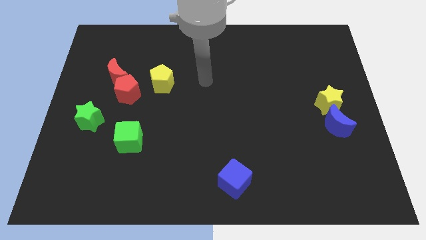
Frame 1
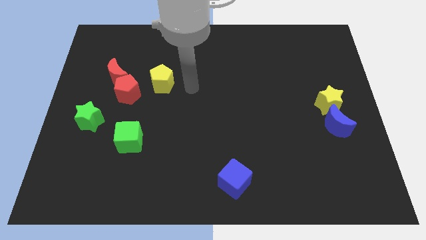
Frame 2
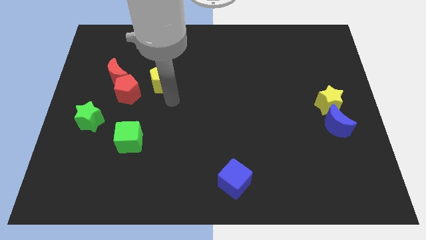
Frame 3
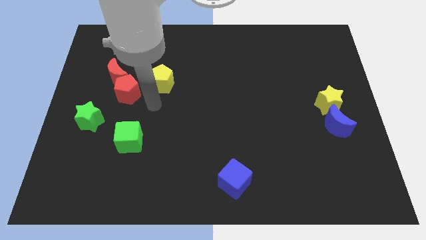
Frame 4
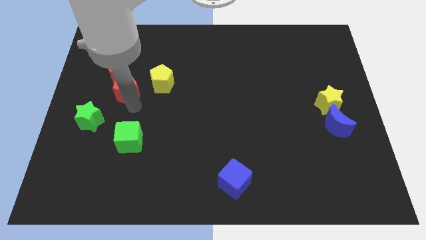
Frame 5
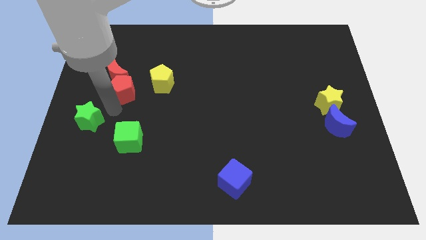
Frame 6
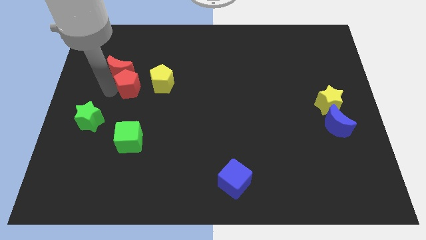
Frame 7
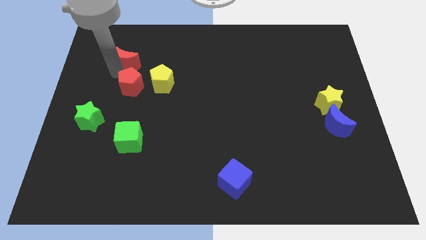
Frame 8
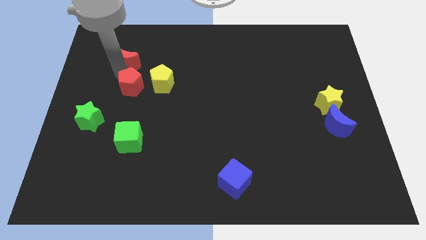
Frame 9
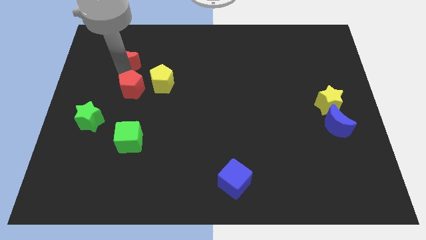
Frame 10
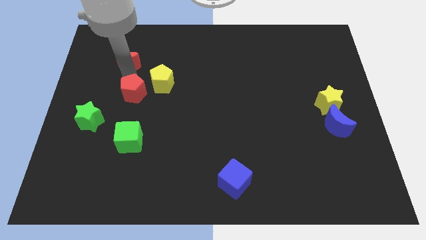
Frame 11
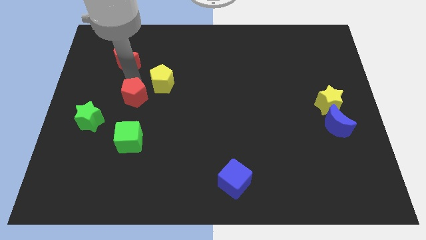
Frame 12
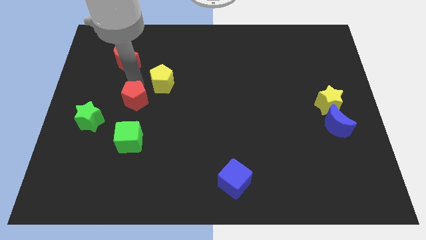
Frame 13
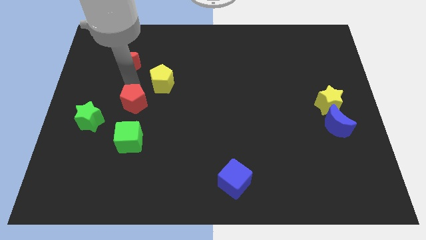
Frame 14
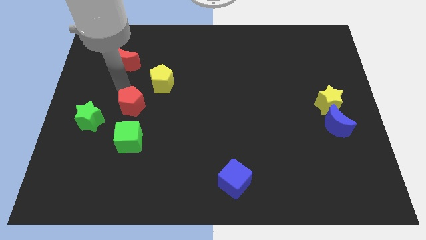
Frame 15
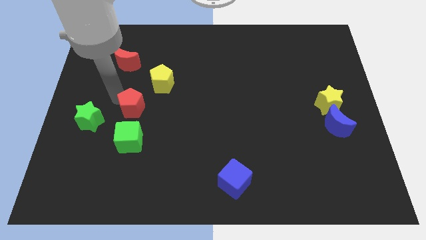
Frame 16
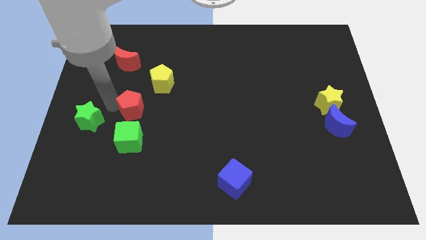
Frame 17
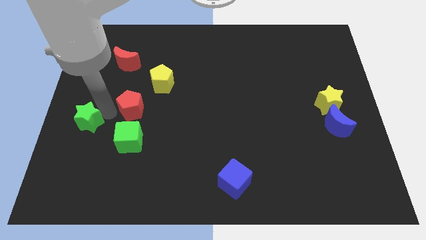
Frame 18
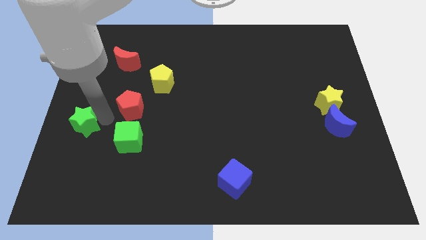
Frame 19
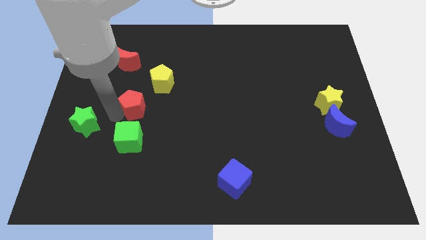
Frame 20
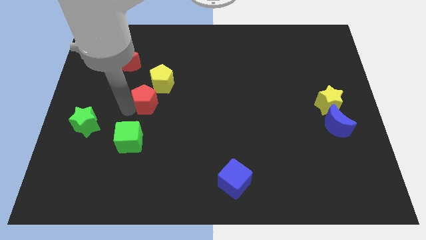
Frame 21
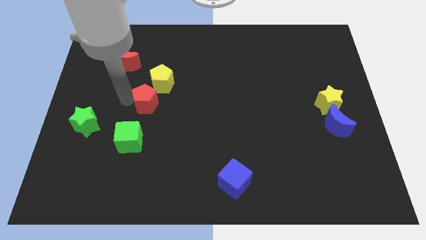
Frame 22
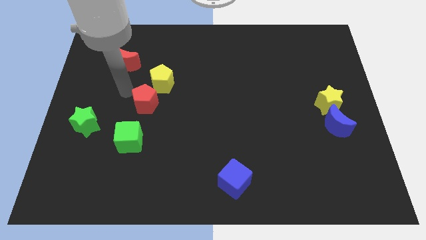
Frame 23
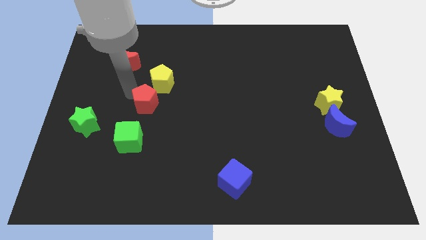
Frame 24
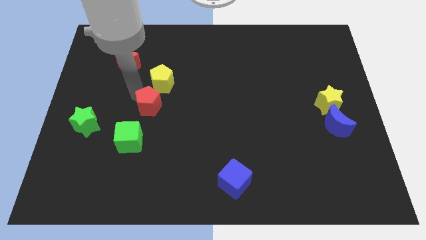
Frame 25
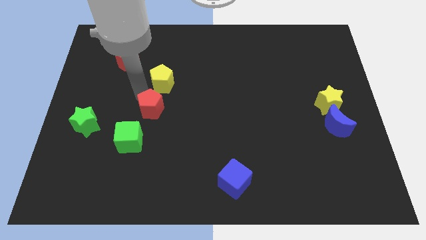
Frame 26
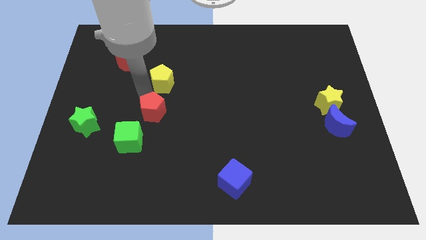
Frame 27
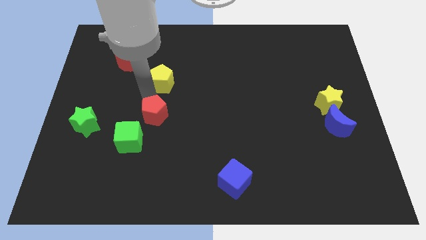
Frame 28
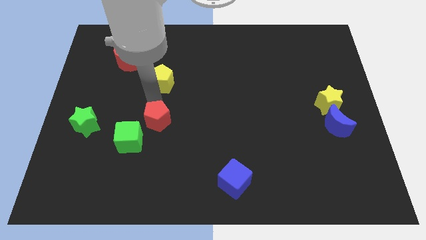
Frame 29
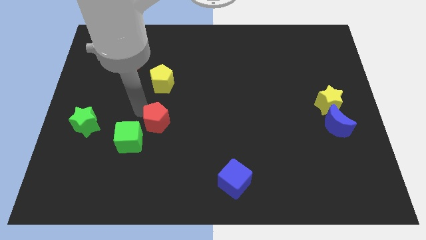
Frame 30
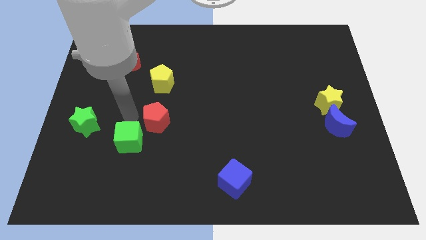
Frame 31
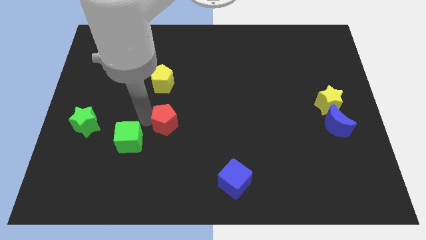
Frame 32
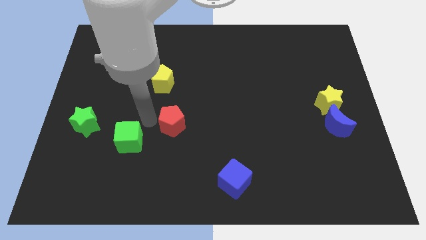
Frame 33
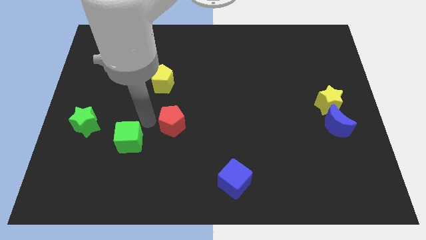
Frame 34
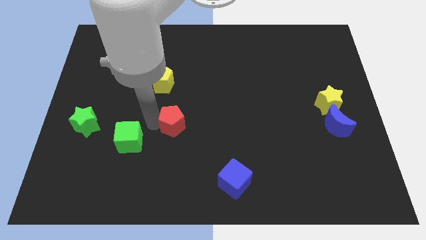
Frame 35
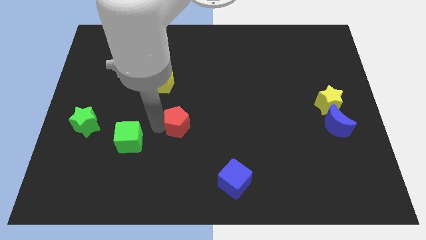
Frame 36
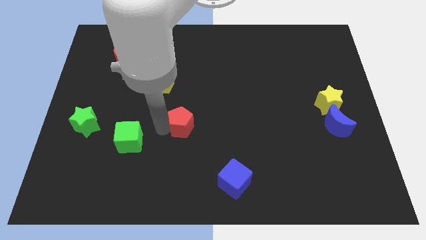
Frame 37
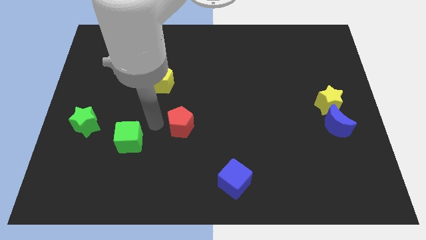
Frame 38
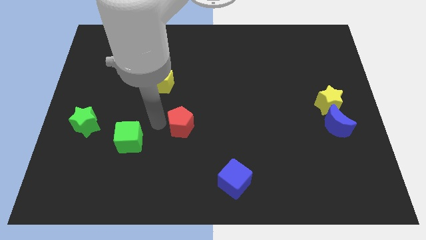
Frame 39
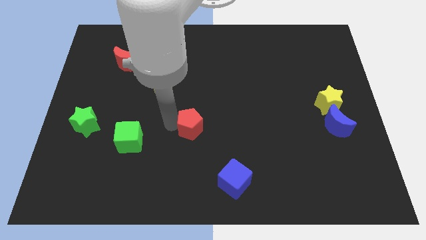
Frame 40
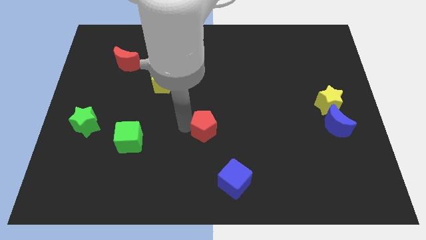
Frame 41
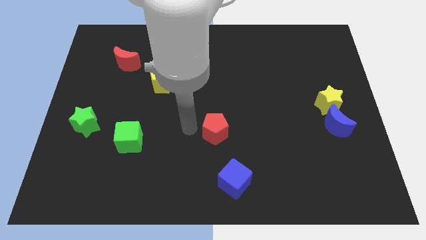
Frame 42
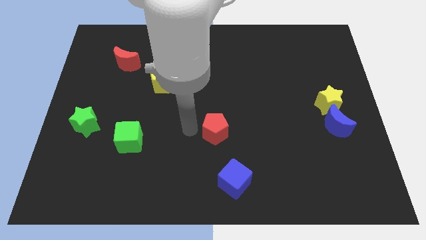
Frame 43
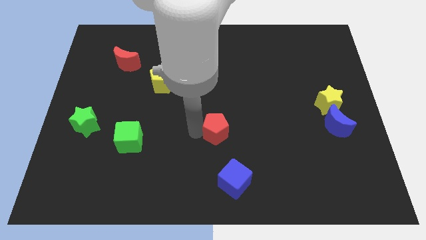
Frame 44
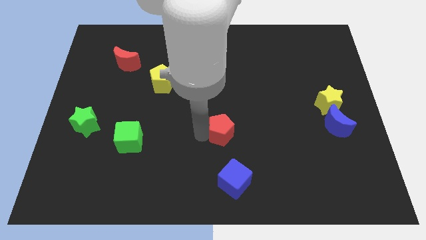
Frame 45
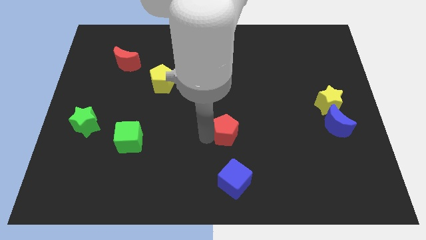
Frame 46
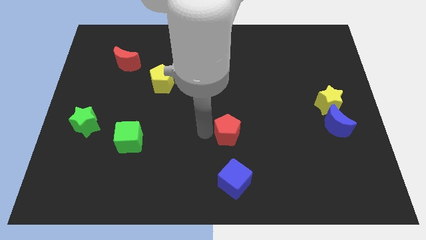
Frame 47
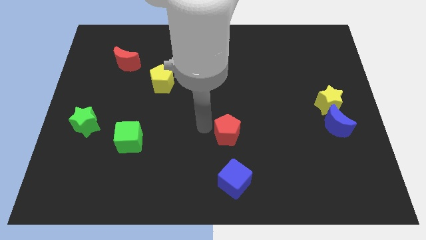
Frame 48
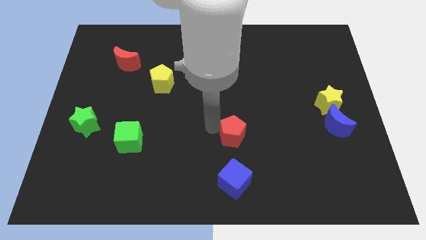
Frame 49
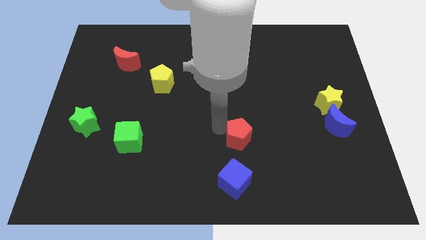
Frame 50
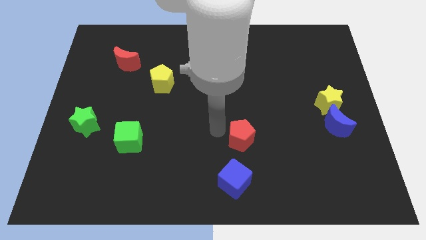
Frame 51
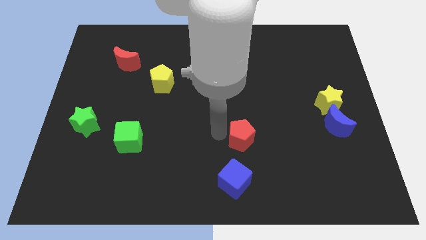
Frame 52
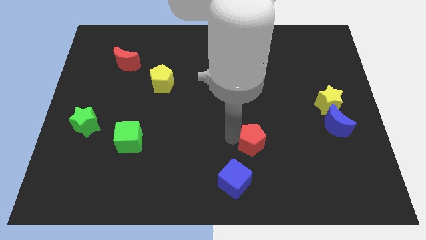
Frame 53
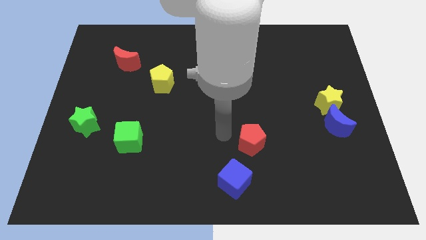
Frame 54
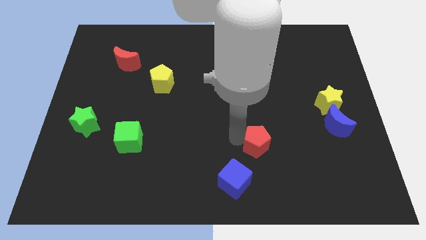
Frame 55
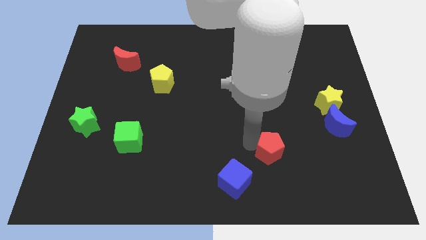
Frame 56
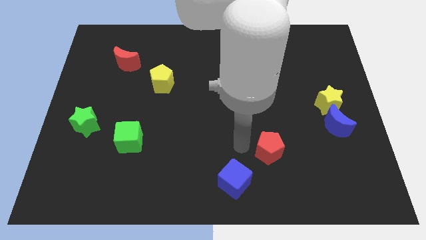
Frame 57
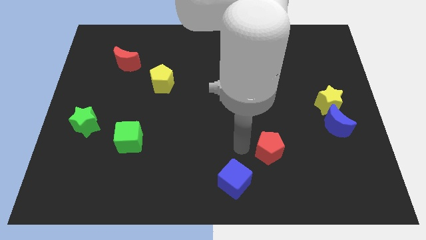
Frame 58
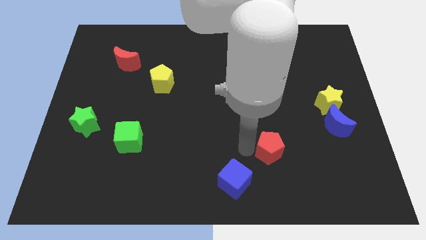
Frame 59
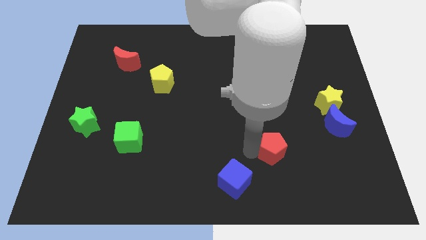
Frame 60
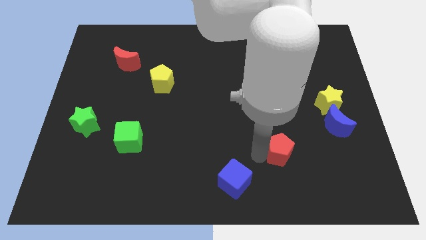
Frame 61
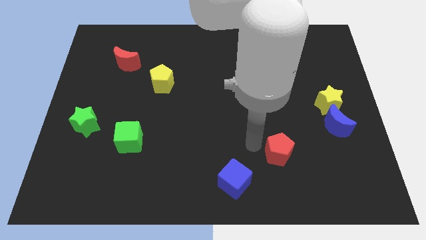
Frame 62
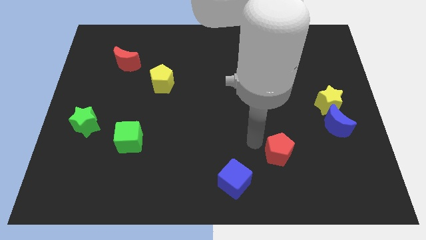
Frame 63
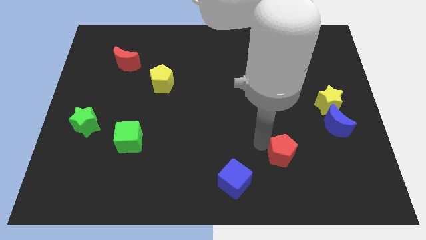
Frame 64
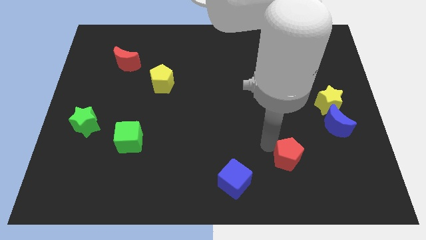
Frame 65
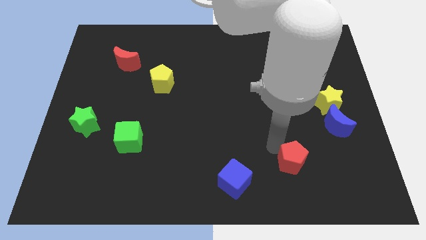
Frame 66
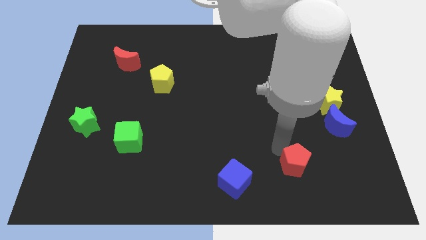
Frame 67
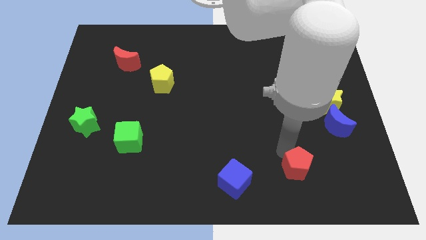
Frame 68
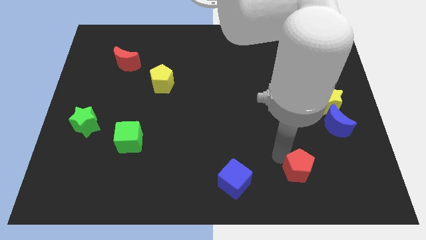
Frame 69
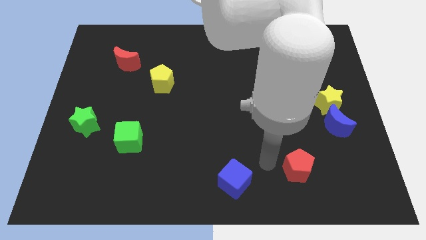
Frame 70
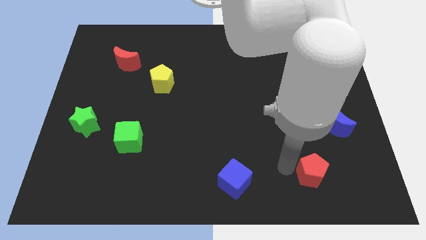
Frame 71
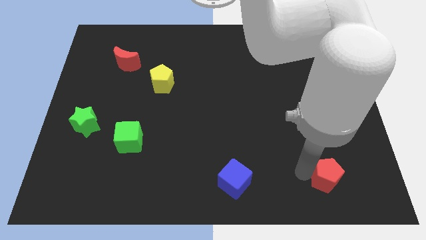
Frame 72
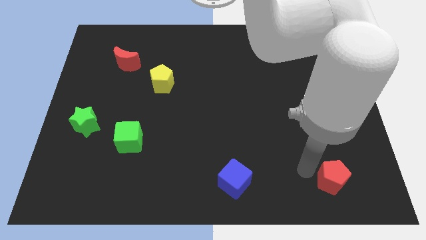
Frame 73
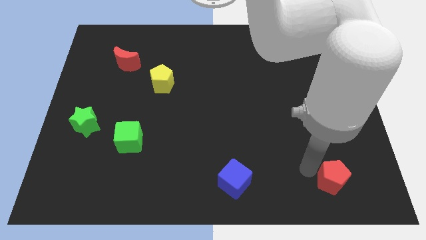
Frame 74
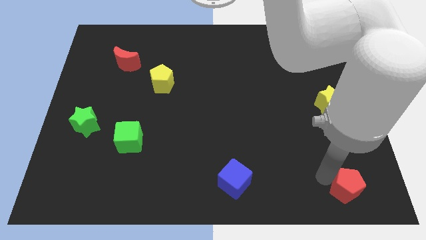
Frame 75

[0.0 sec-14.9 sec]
move the red pentagon to the lower right corner
